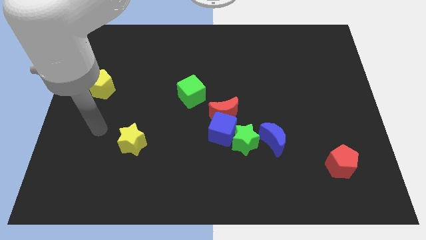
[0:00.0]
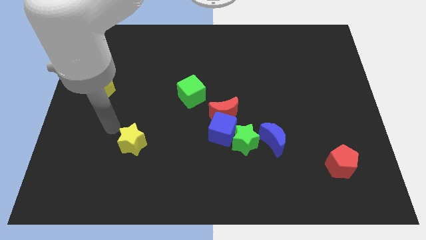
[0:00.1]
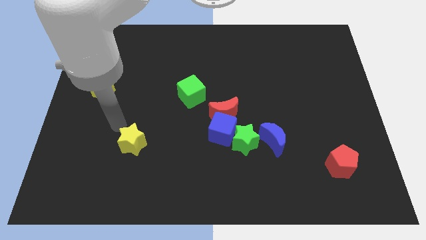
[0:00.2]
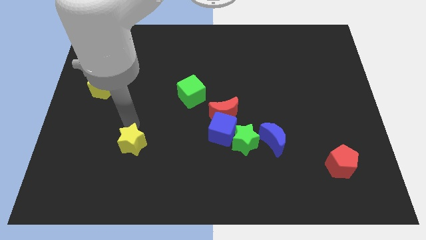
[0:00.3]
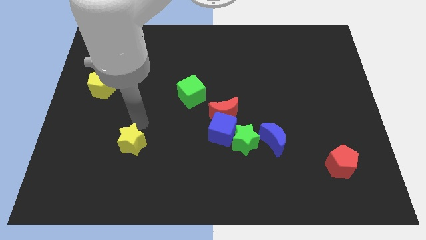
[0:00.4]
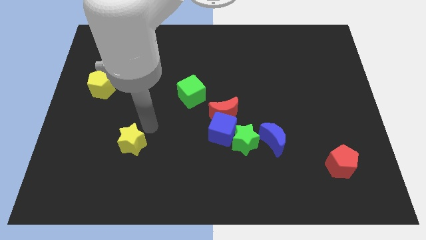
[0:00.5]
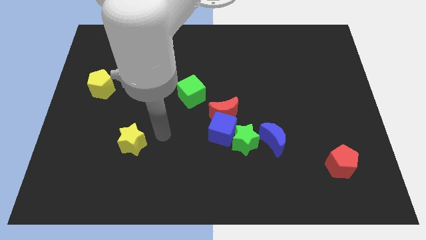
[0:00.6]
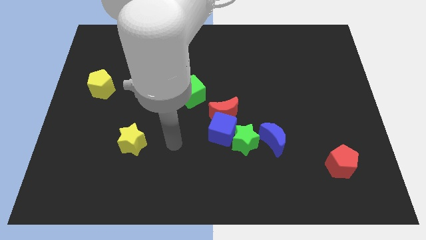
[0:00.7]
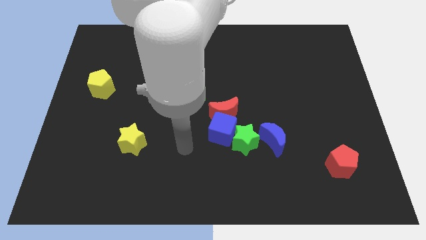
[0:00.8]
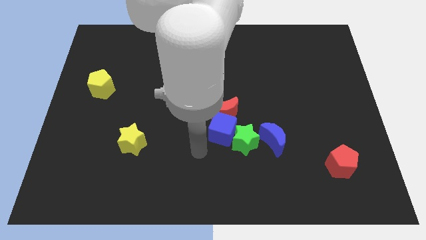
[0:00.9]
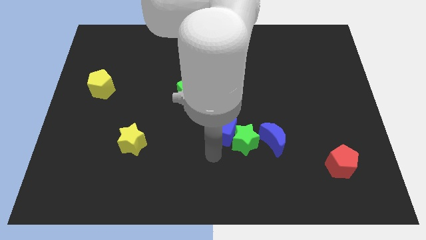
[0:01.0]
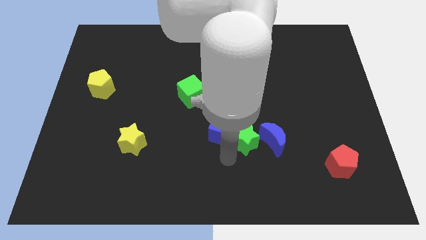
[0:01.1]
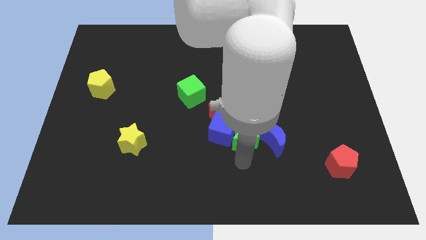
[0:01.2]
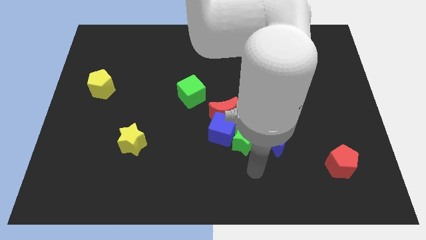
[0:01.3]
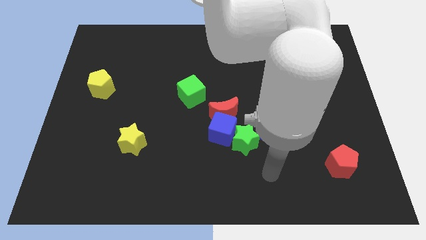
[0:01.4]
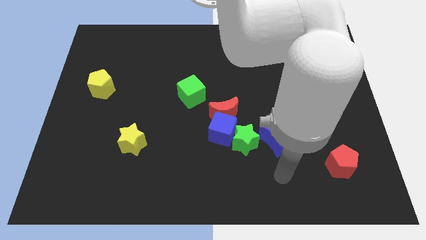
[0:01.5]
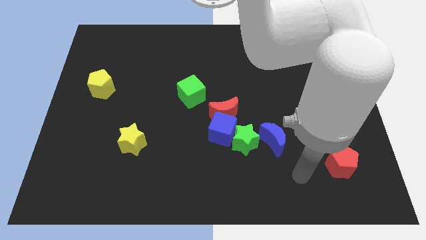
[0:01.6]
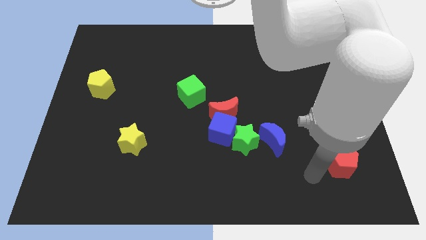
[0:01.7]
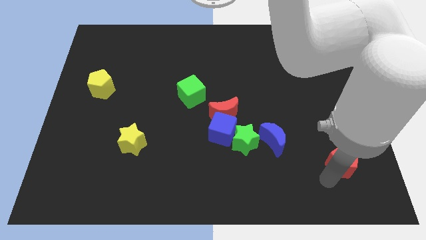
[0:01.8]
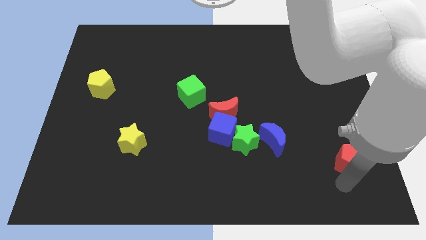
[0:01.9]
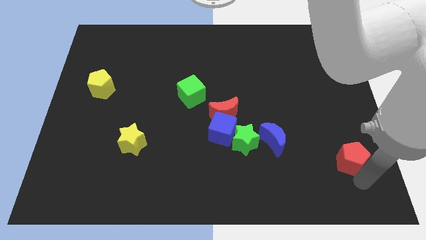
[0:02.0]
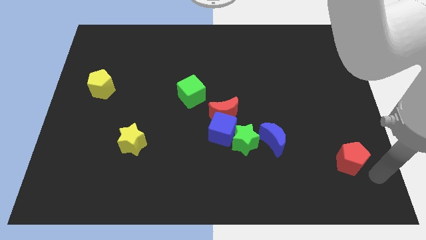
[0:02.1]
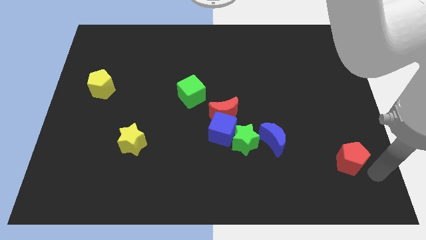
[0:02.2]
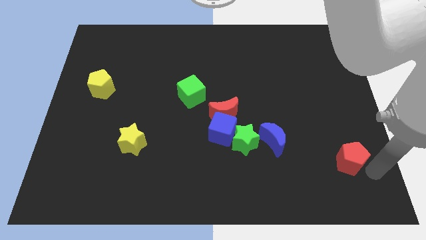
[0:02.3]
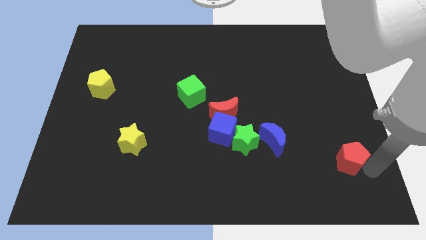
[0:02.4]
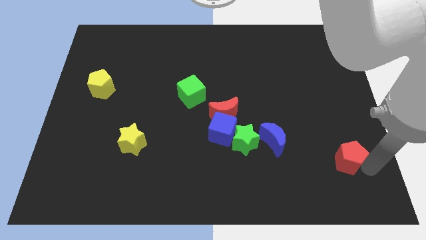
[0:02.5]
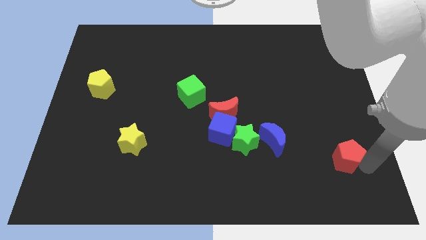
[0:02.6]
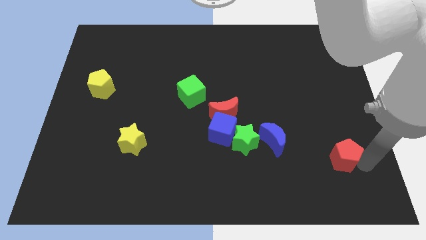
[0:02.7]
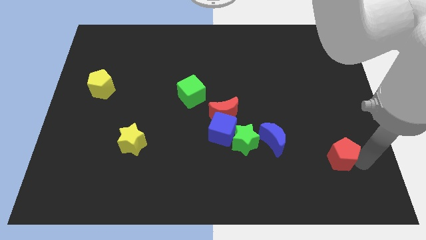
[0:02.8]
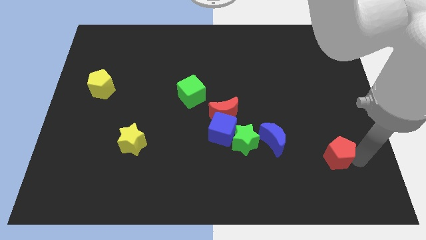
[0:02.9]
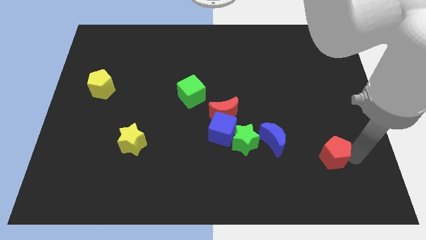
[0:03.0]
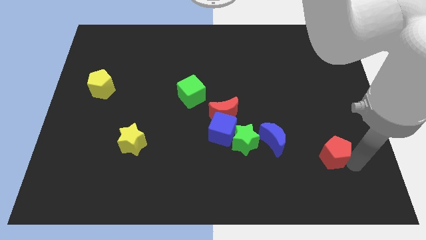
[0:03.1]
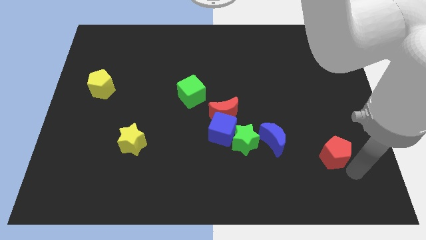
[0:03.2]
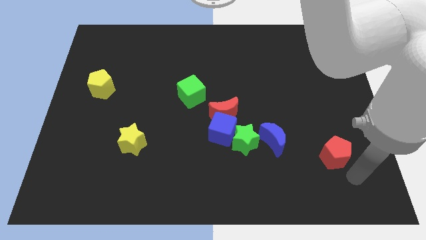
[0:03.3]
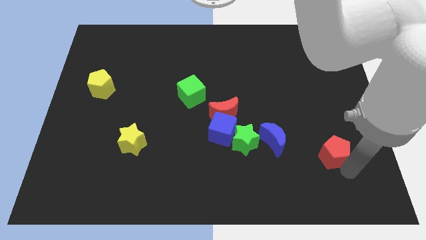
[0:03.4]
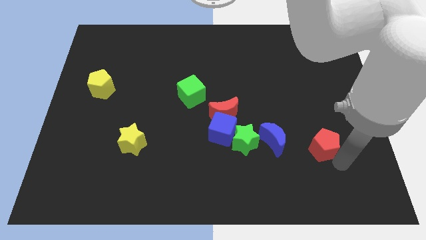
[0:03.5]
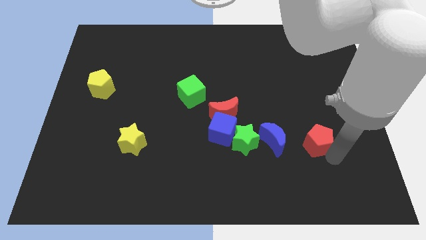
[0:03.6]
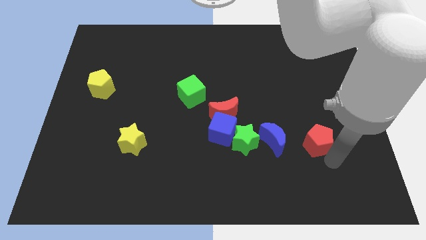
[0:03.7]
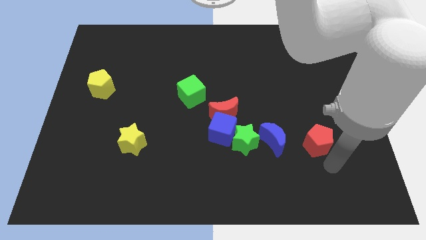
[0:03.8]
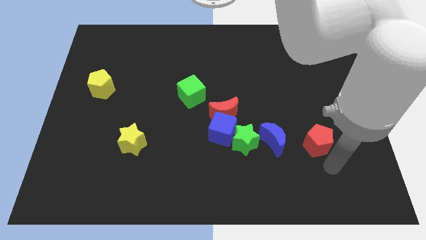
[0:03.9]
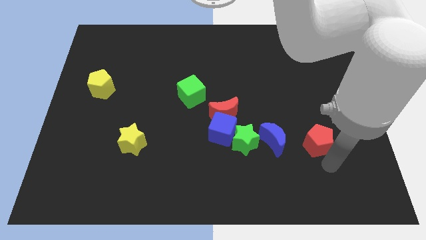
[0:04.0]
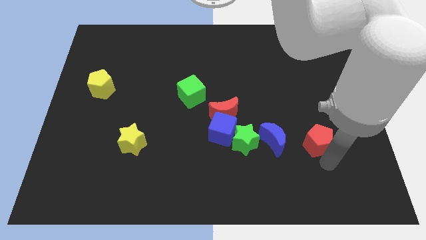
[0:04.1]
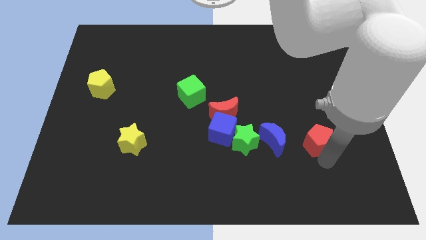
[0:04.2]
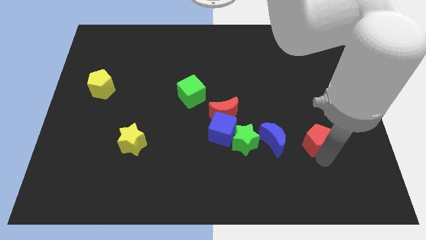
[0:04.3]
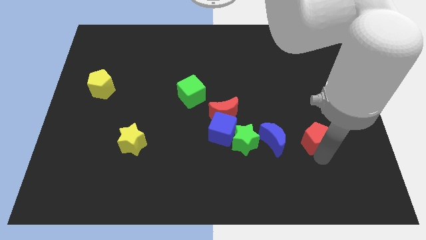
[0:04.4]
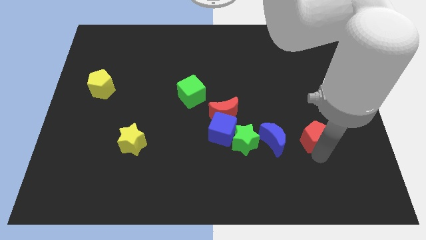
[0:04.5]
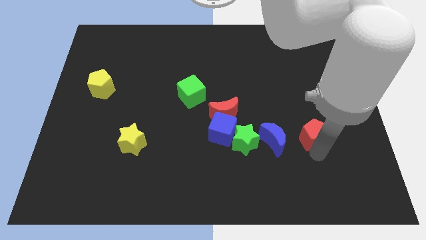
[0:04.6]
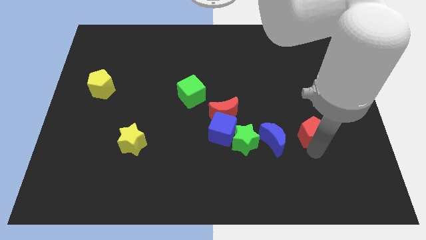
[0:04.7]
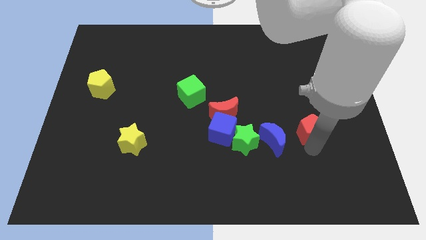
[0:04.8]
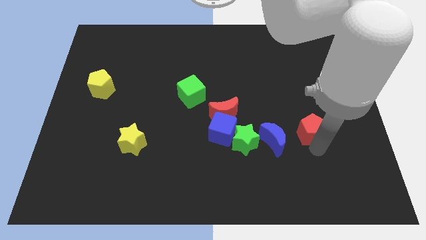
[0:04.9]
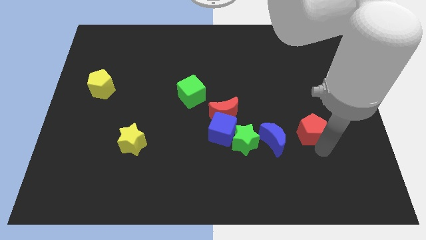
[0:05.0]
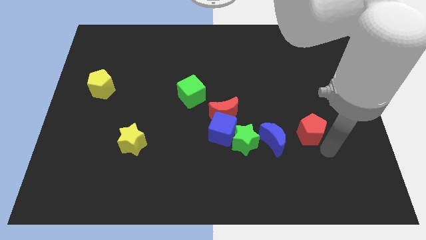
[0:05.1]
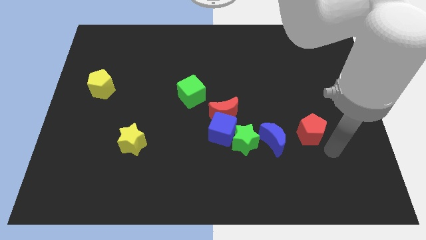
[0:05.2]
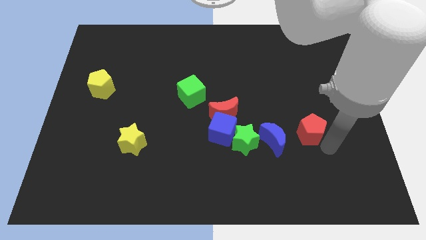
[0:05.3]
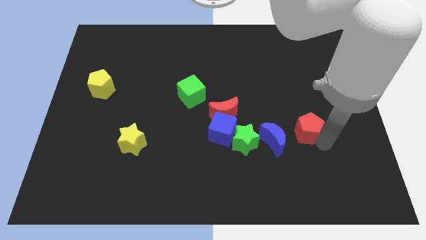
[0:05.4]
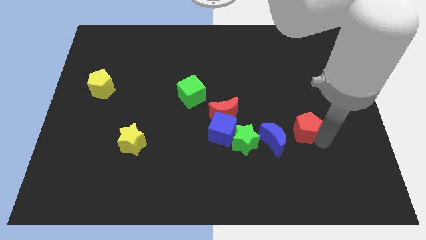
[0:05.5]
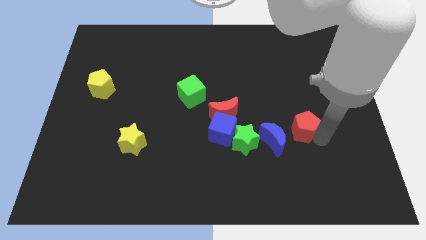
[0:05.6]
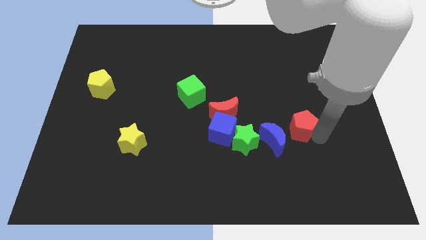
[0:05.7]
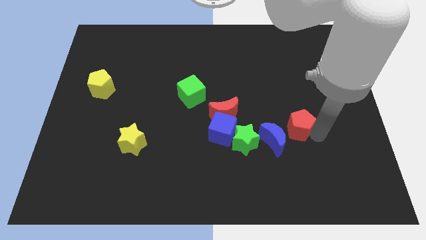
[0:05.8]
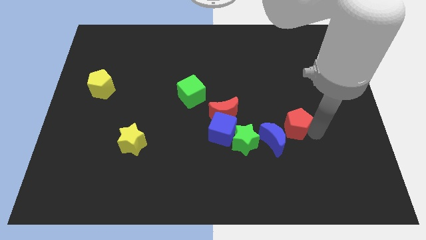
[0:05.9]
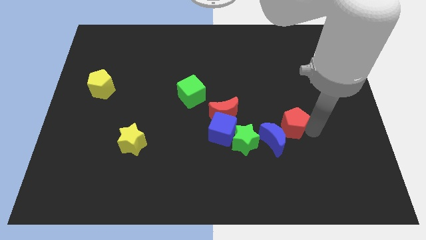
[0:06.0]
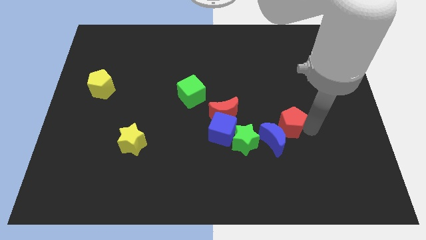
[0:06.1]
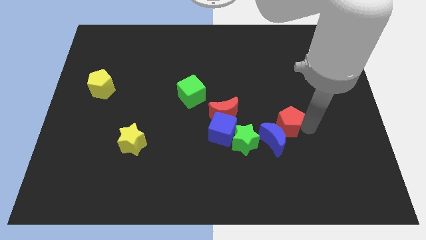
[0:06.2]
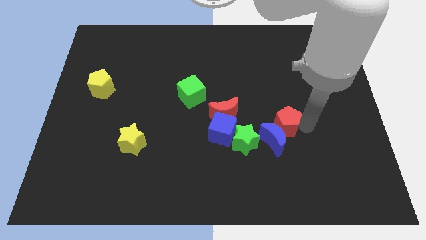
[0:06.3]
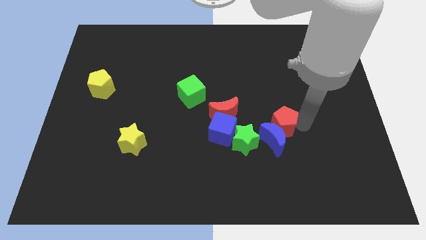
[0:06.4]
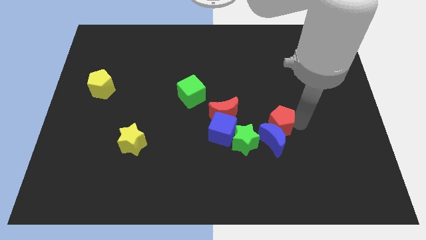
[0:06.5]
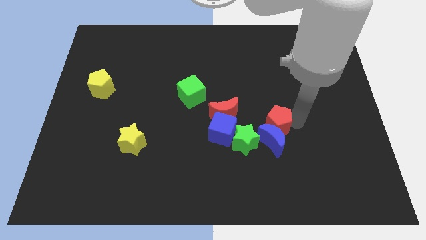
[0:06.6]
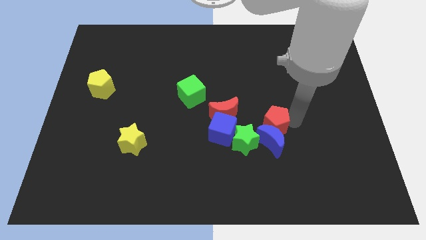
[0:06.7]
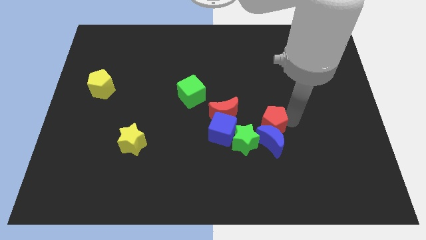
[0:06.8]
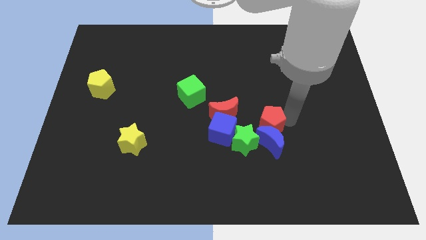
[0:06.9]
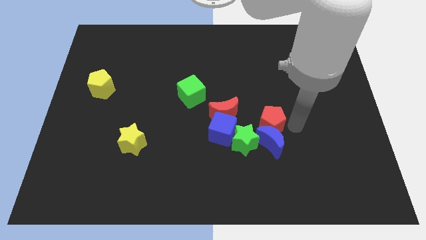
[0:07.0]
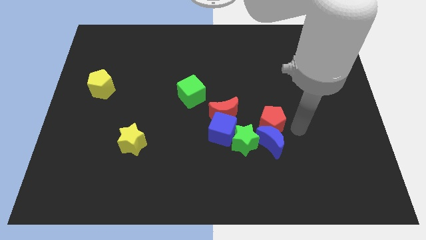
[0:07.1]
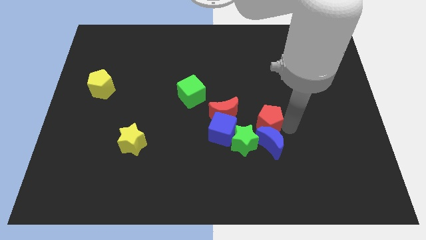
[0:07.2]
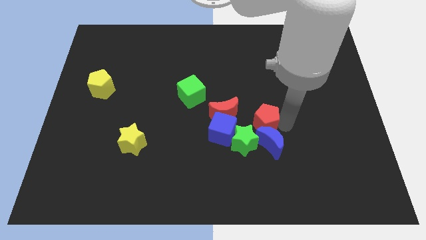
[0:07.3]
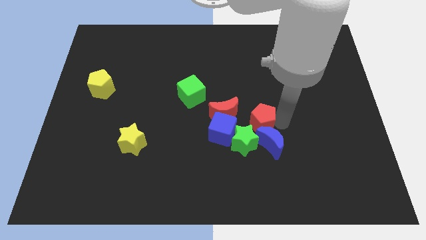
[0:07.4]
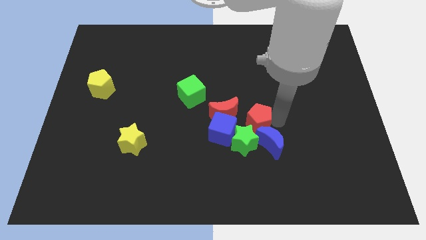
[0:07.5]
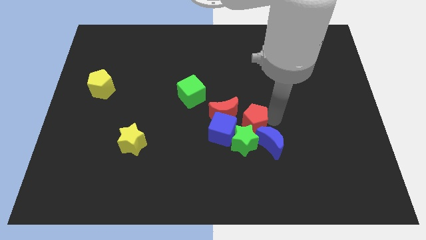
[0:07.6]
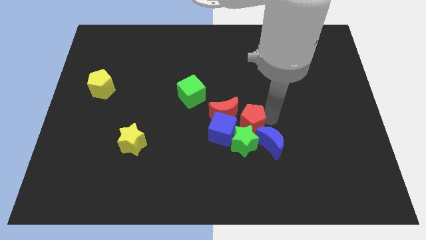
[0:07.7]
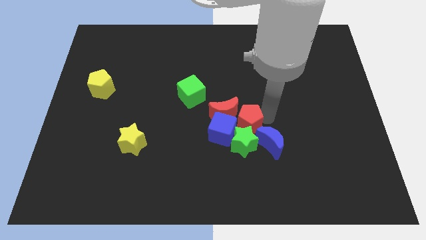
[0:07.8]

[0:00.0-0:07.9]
put the red pentagon next to the red moon
